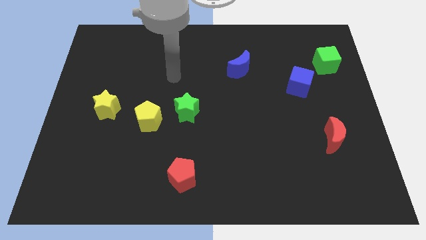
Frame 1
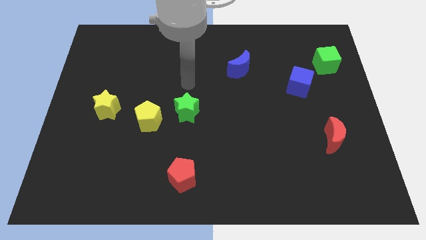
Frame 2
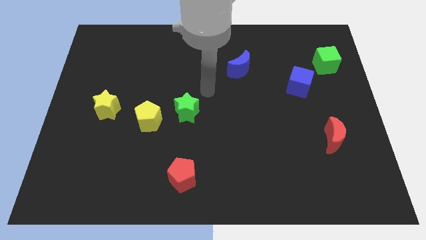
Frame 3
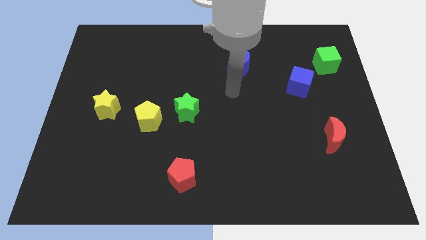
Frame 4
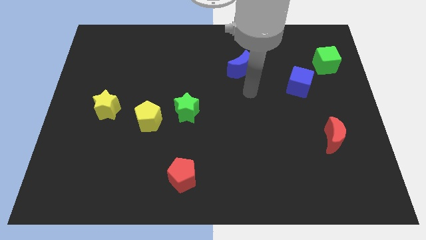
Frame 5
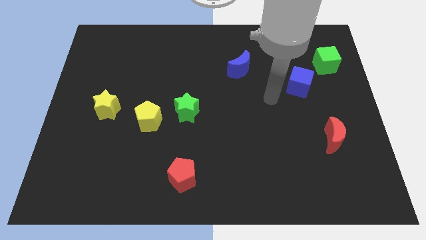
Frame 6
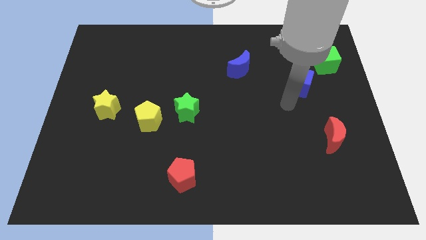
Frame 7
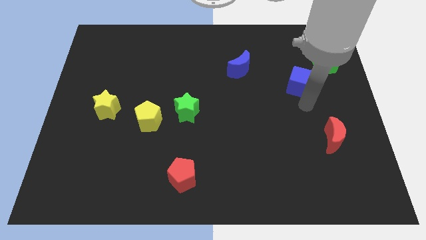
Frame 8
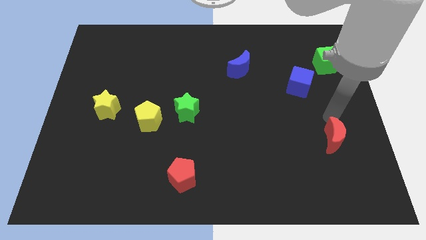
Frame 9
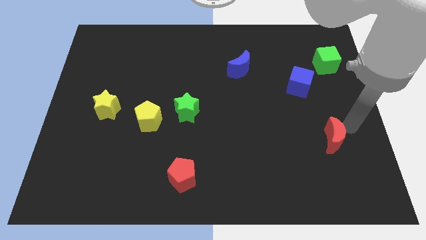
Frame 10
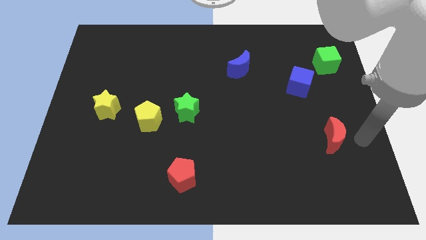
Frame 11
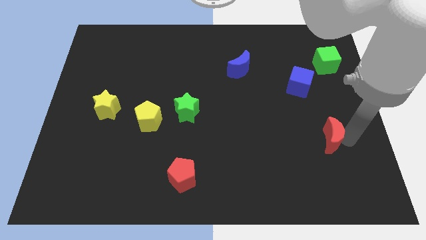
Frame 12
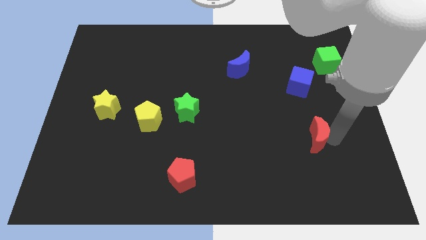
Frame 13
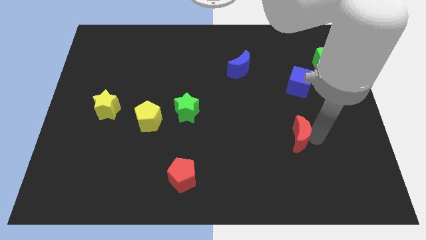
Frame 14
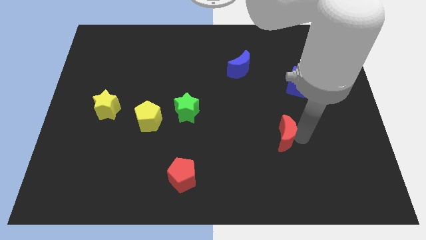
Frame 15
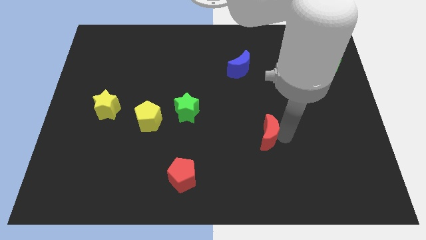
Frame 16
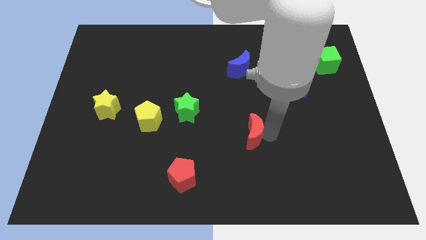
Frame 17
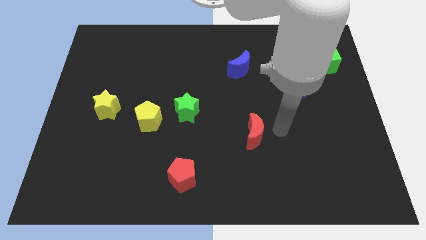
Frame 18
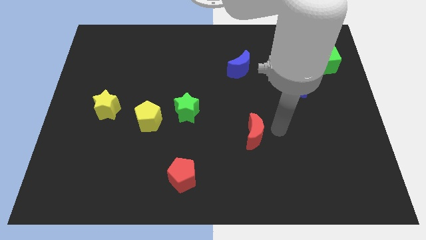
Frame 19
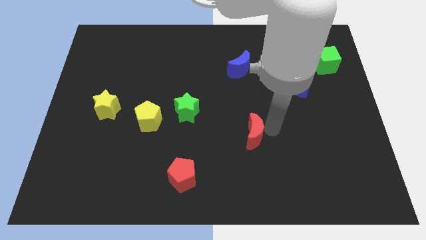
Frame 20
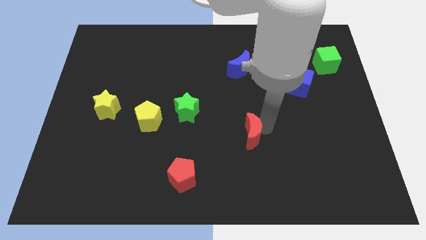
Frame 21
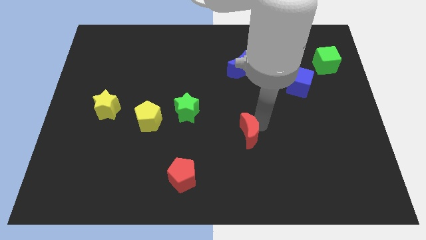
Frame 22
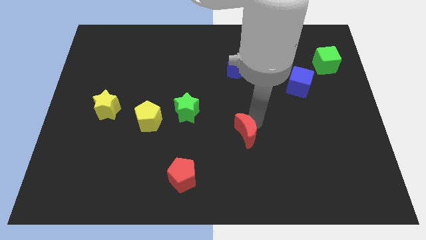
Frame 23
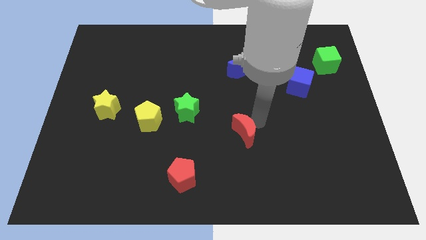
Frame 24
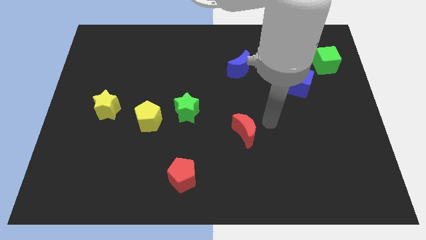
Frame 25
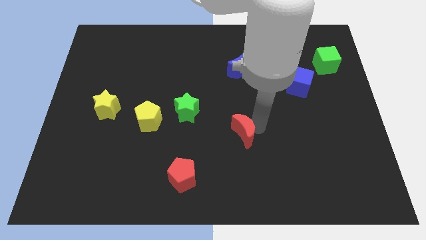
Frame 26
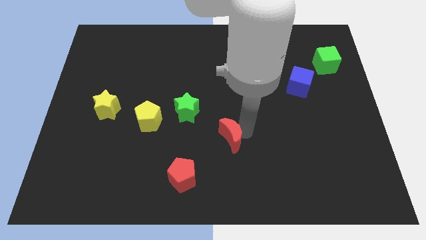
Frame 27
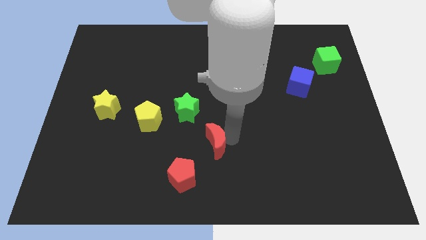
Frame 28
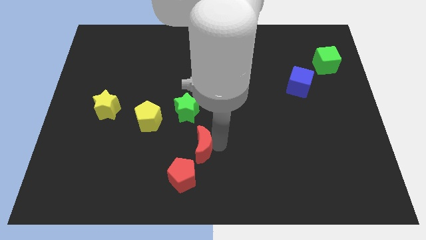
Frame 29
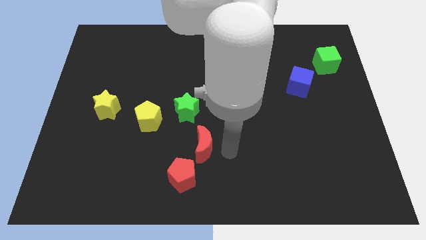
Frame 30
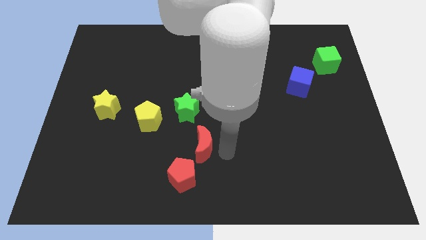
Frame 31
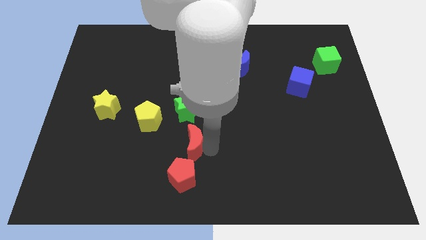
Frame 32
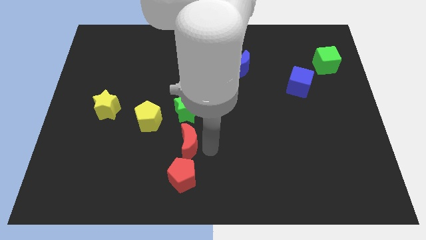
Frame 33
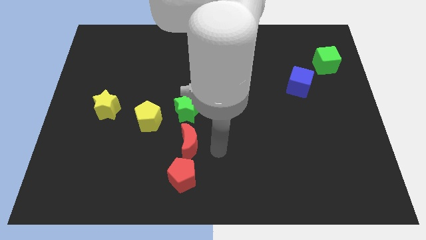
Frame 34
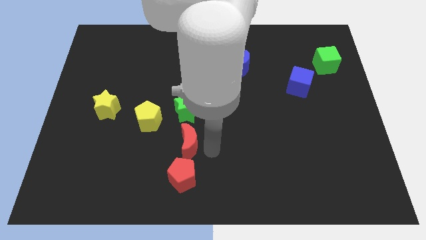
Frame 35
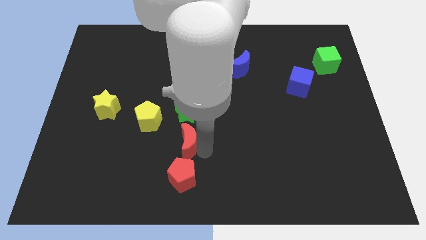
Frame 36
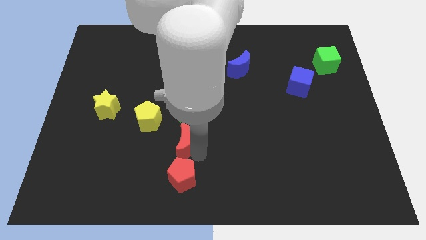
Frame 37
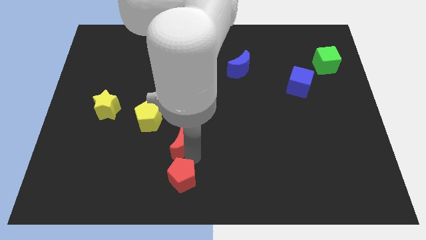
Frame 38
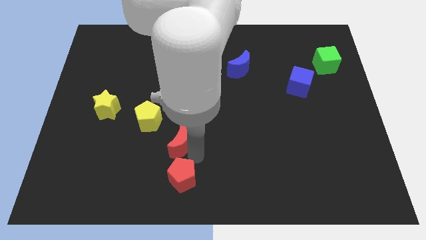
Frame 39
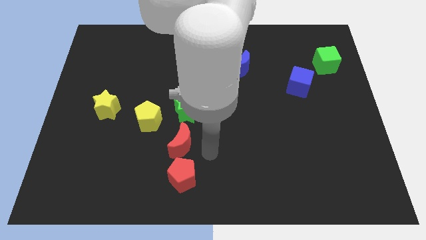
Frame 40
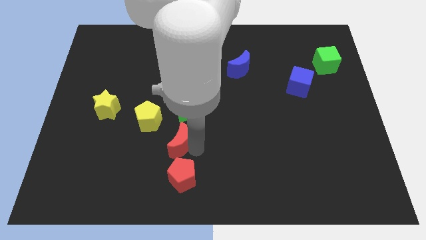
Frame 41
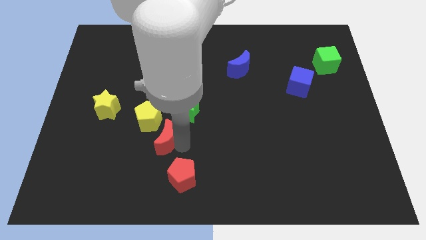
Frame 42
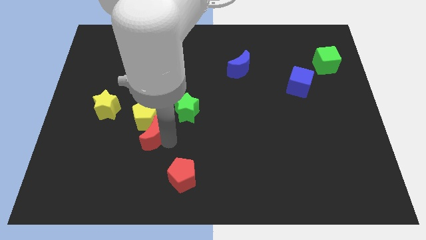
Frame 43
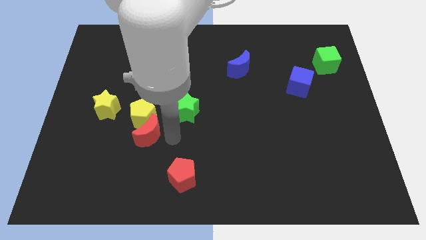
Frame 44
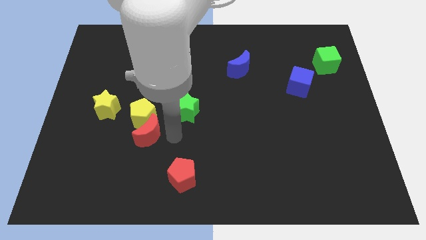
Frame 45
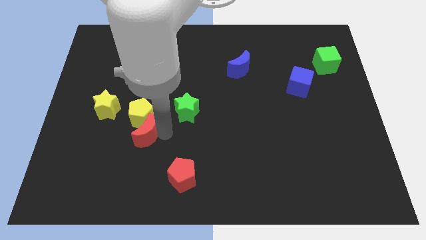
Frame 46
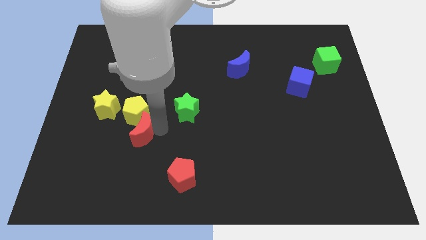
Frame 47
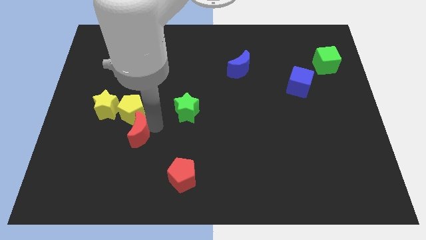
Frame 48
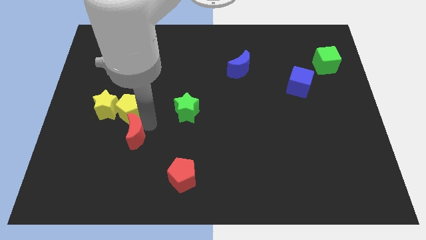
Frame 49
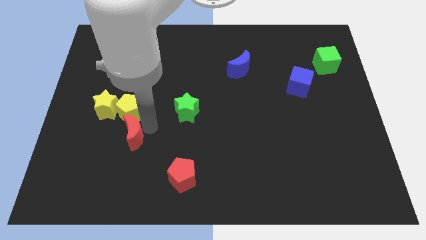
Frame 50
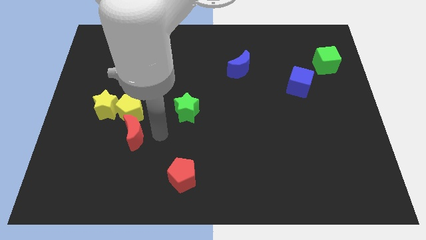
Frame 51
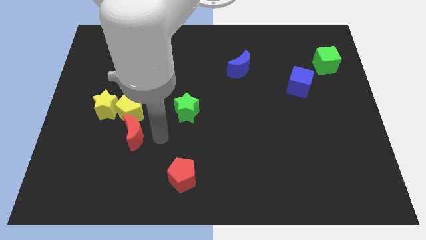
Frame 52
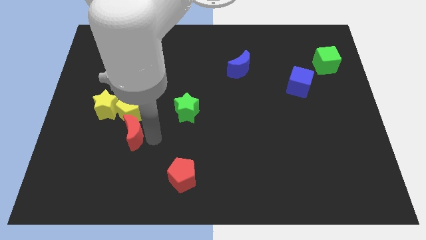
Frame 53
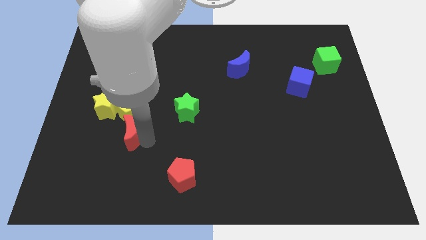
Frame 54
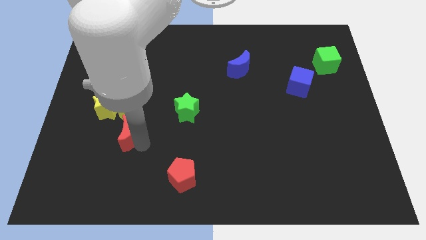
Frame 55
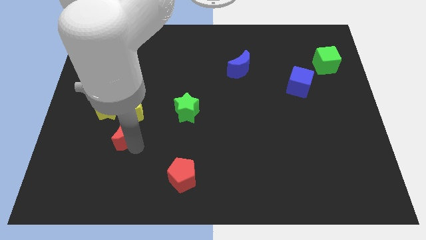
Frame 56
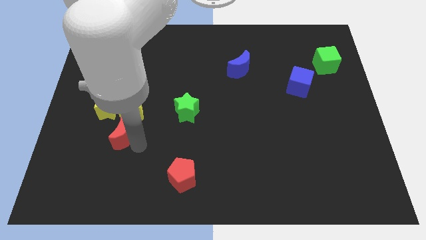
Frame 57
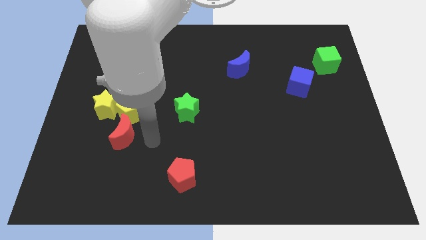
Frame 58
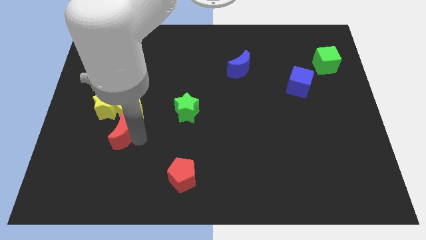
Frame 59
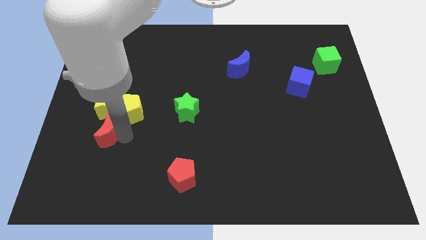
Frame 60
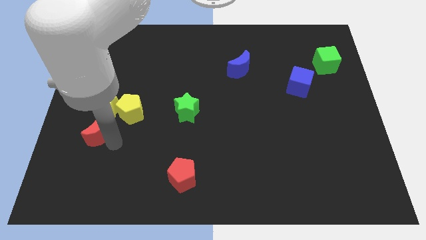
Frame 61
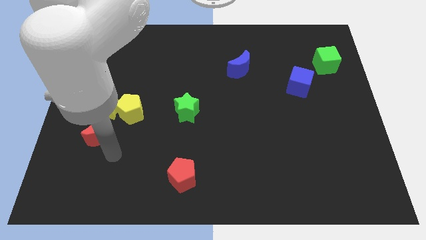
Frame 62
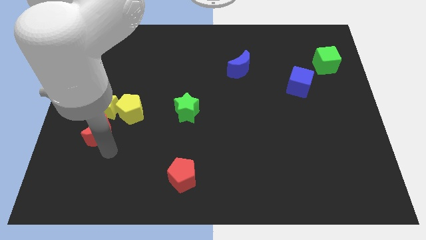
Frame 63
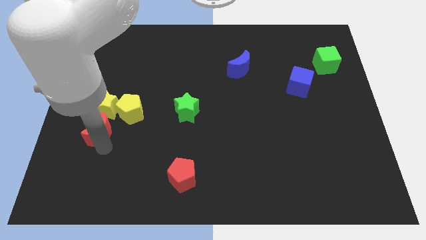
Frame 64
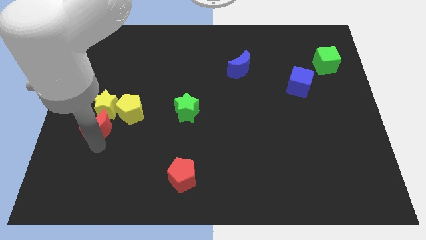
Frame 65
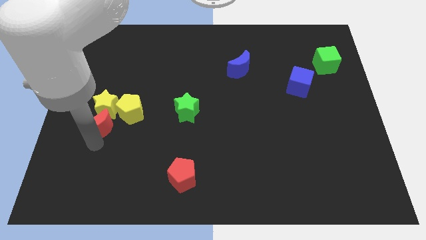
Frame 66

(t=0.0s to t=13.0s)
slide the red moon left of the yellow pentagon

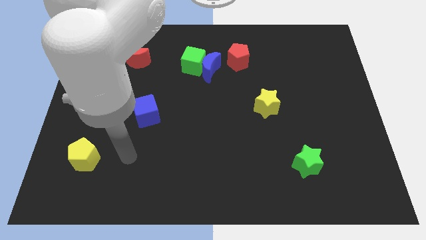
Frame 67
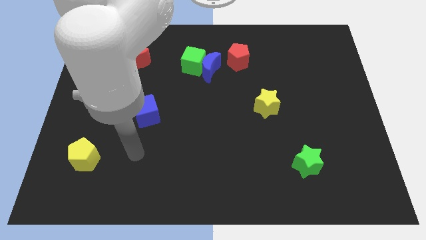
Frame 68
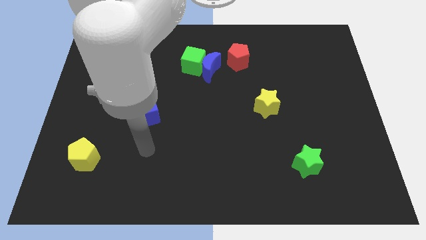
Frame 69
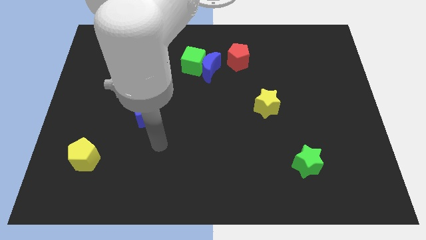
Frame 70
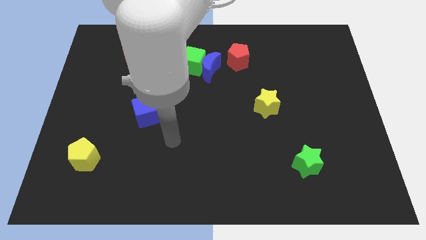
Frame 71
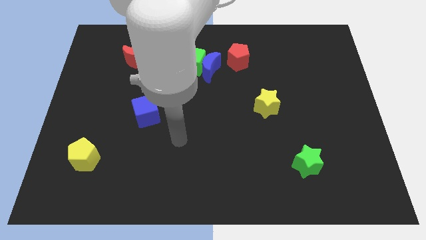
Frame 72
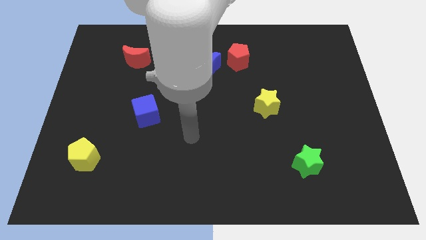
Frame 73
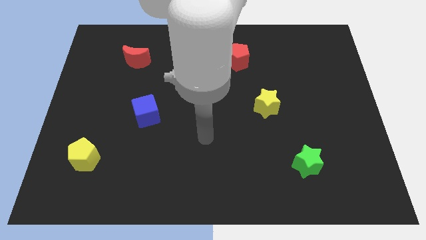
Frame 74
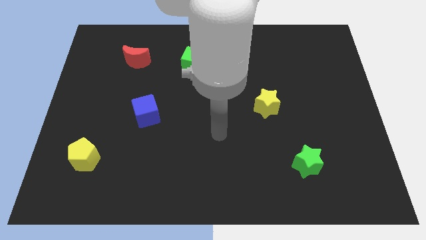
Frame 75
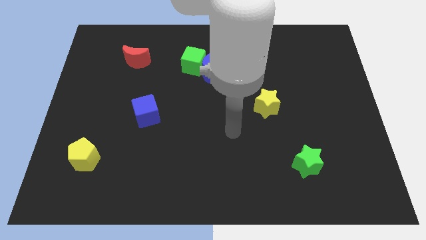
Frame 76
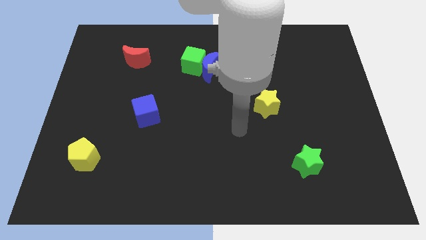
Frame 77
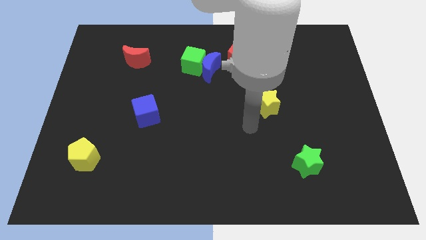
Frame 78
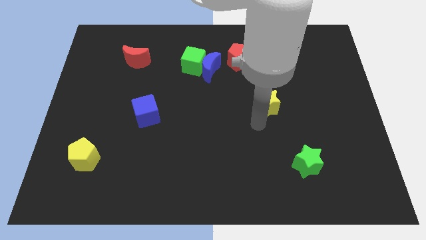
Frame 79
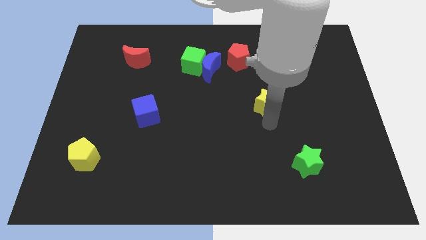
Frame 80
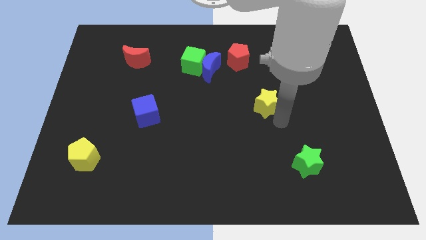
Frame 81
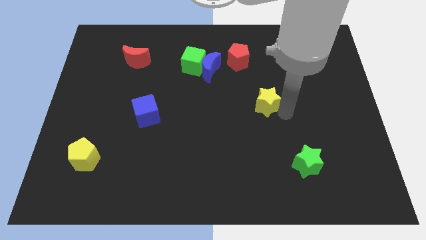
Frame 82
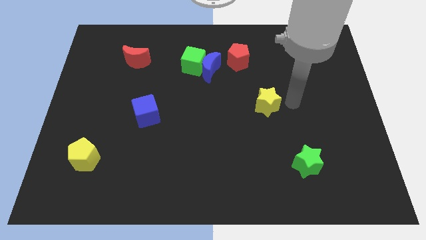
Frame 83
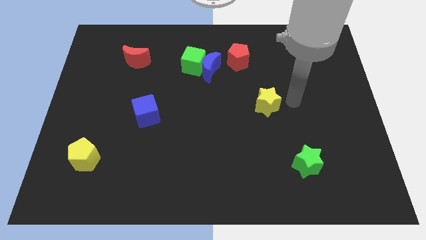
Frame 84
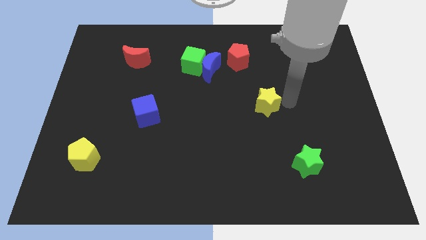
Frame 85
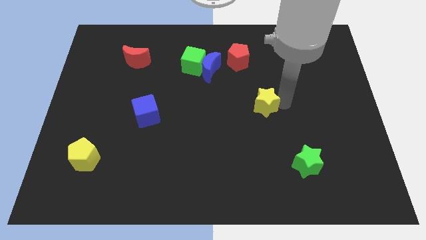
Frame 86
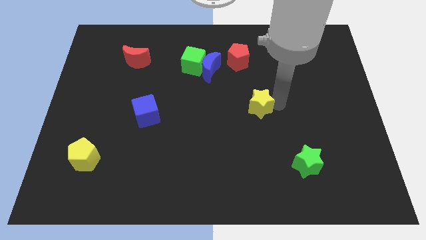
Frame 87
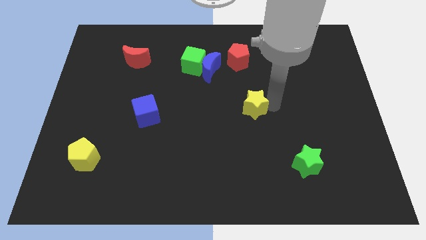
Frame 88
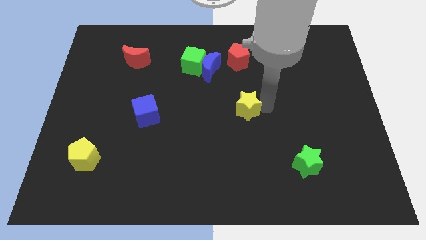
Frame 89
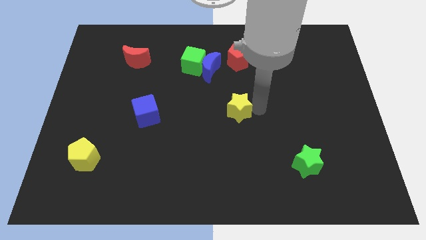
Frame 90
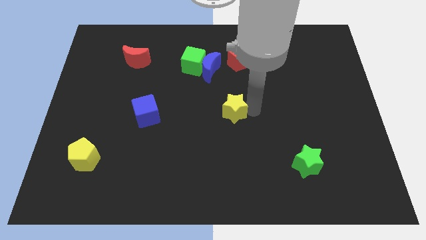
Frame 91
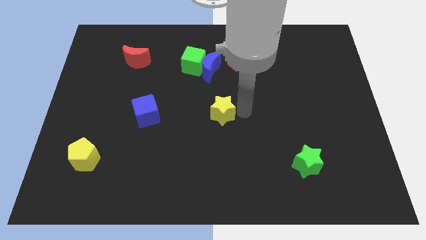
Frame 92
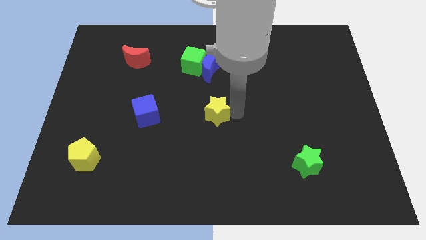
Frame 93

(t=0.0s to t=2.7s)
slide the yellow star right of the blue cube
